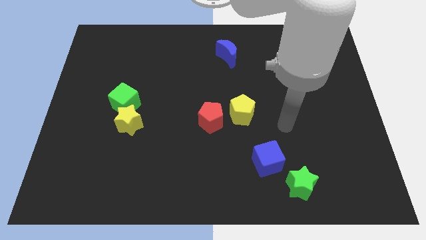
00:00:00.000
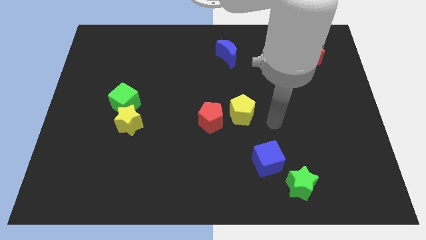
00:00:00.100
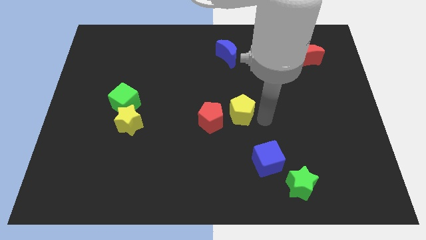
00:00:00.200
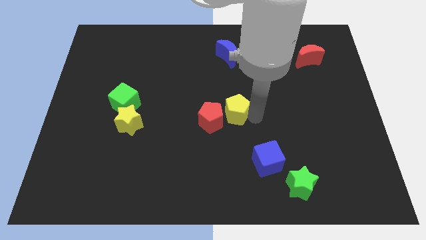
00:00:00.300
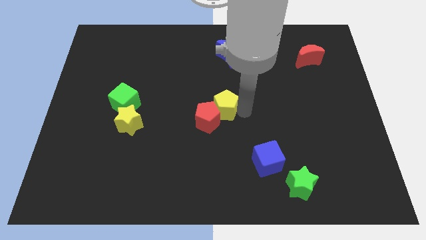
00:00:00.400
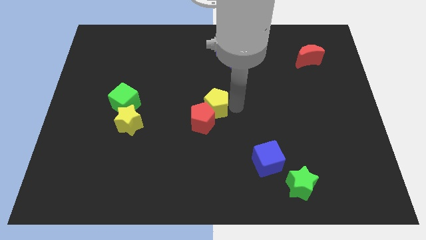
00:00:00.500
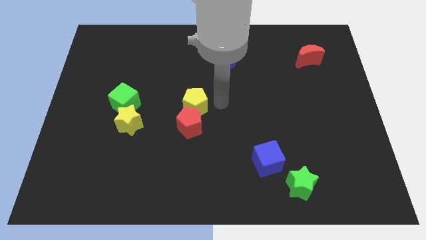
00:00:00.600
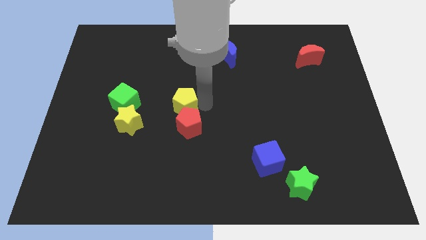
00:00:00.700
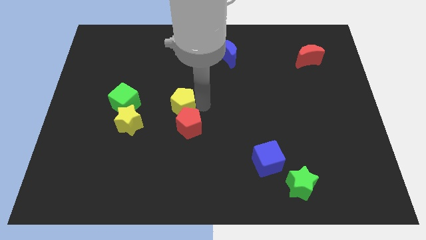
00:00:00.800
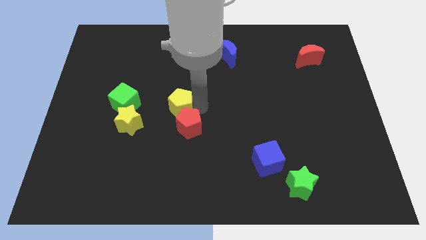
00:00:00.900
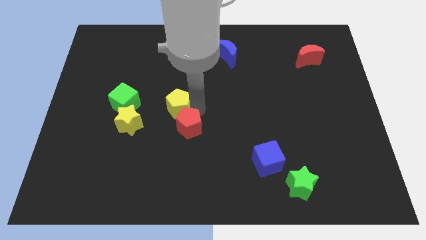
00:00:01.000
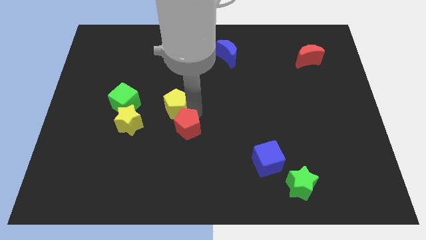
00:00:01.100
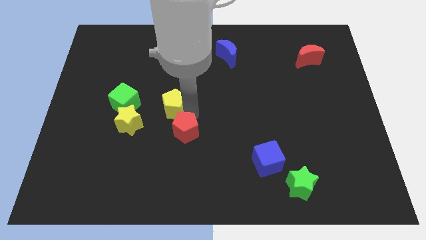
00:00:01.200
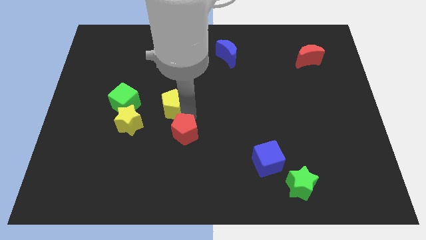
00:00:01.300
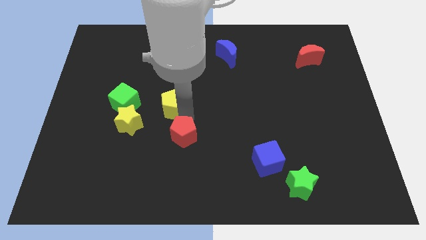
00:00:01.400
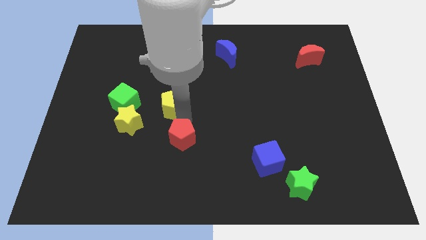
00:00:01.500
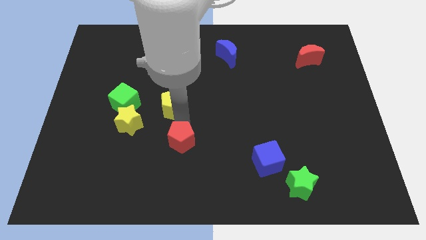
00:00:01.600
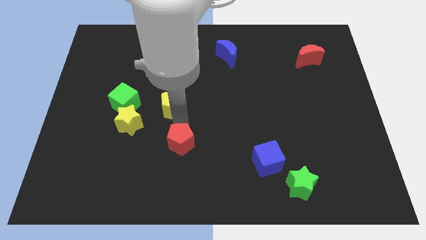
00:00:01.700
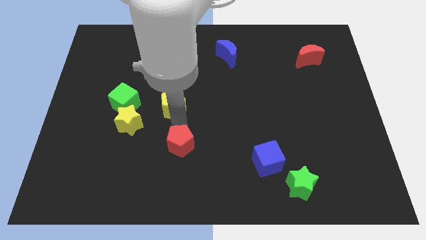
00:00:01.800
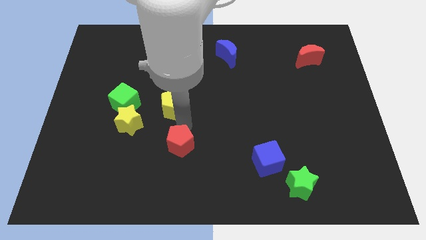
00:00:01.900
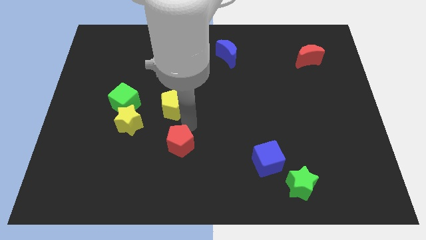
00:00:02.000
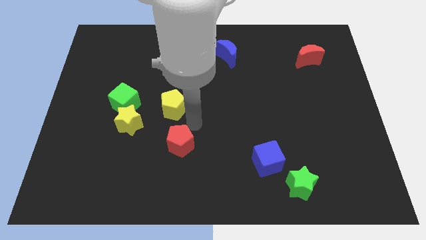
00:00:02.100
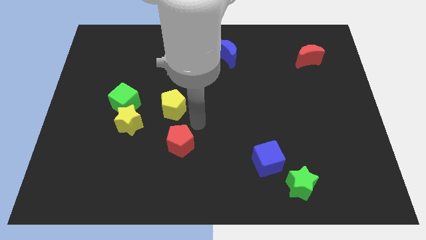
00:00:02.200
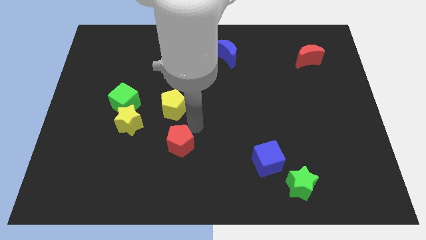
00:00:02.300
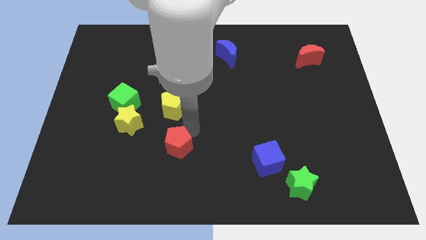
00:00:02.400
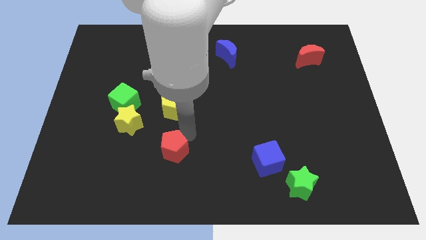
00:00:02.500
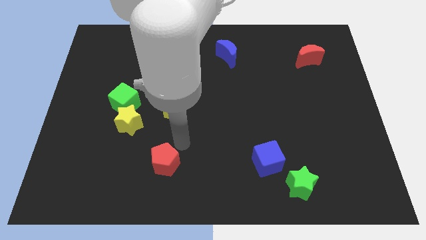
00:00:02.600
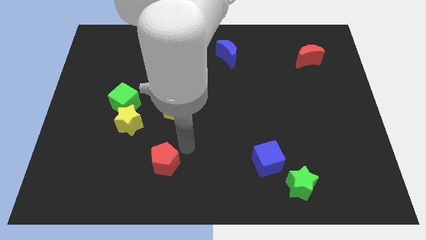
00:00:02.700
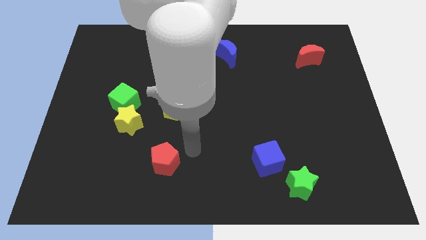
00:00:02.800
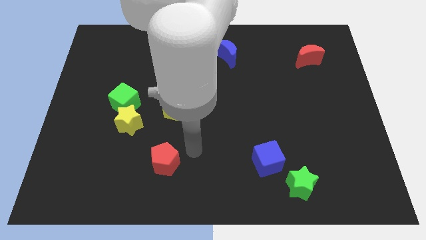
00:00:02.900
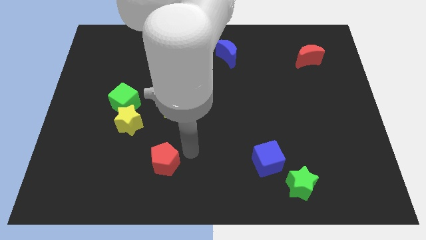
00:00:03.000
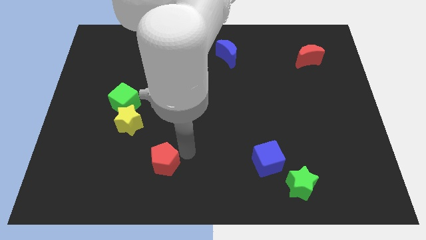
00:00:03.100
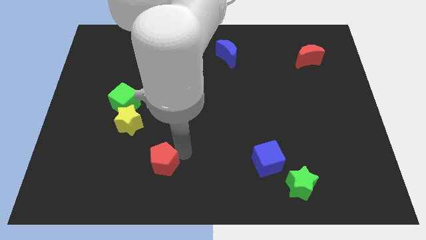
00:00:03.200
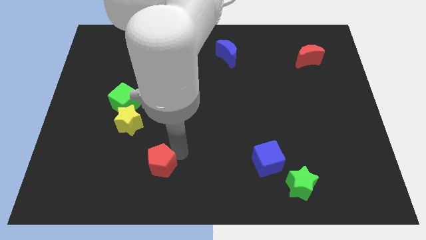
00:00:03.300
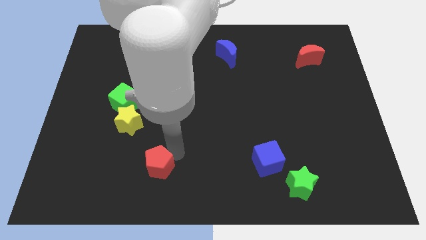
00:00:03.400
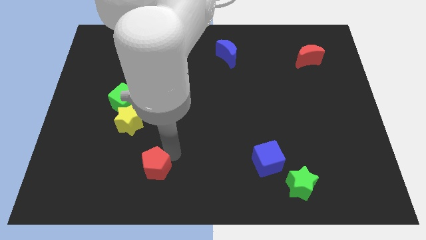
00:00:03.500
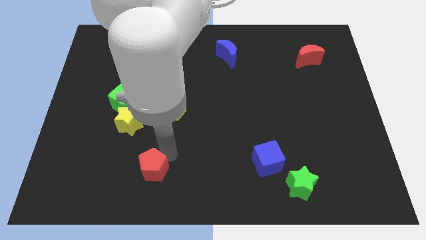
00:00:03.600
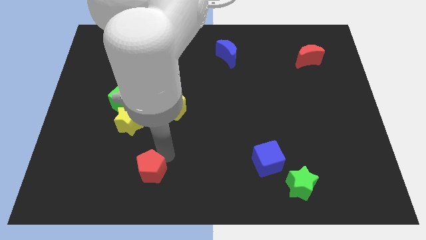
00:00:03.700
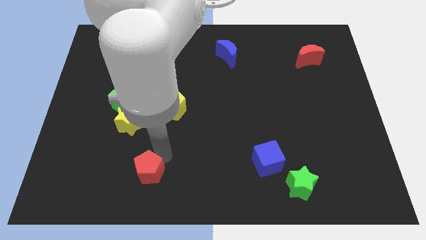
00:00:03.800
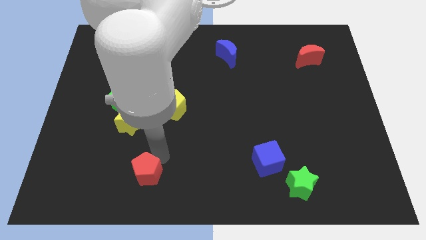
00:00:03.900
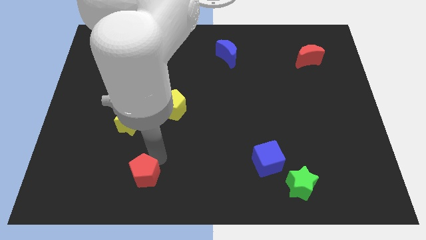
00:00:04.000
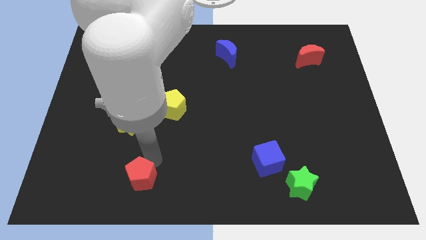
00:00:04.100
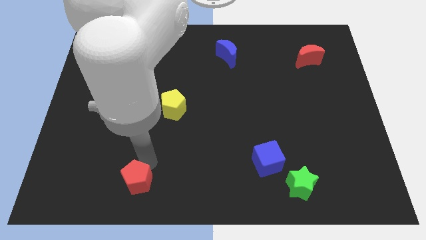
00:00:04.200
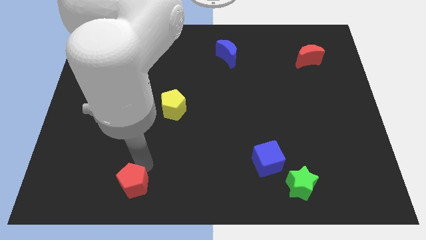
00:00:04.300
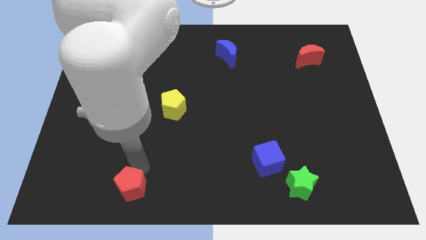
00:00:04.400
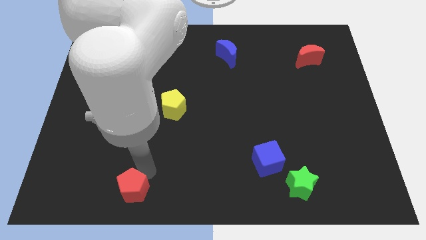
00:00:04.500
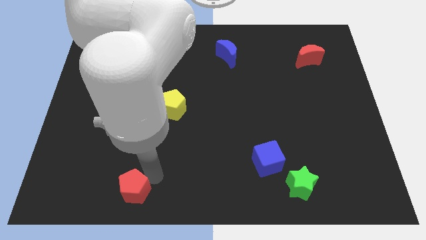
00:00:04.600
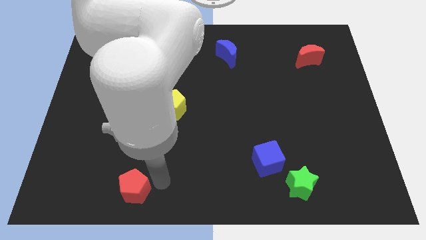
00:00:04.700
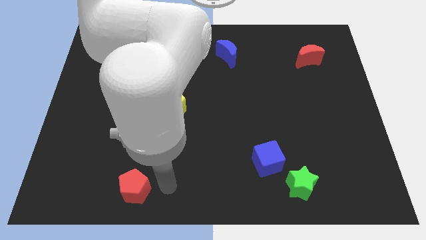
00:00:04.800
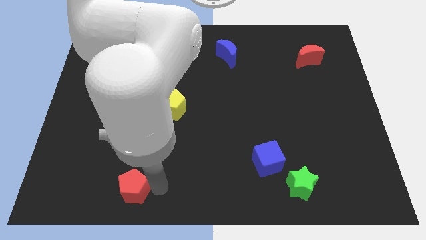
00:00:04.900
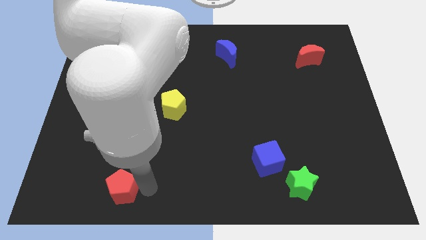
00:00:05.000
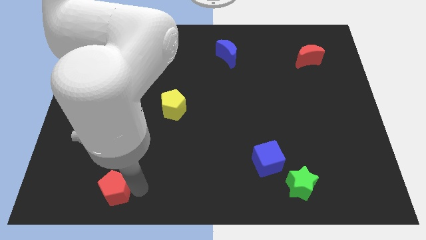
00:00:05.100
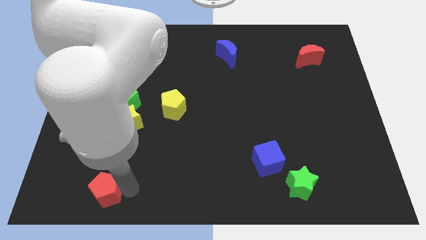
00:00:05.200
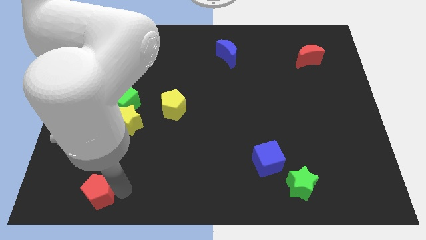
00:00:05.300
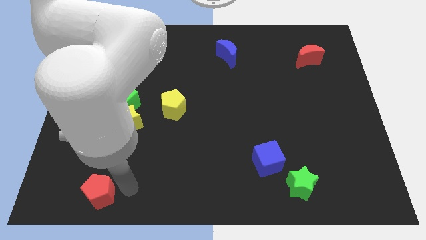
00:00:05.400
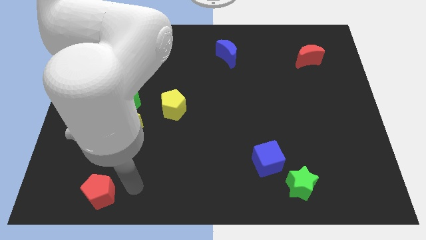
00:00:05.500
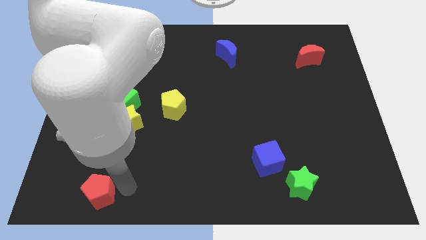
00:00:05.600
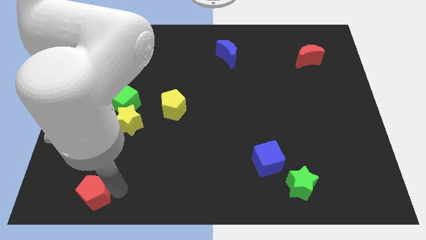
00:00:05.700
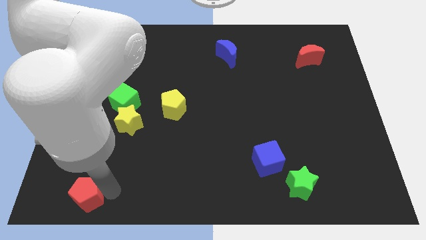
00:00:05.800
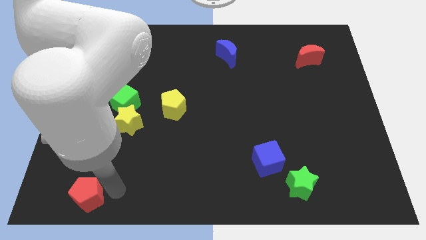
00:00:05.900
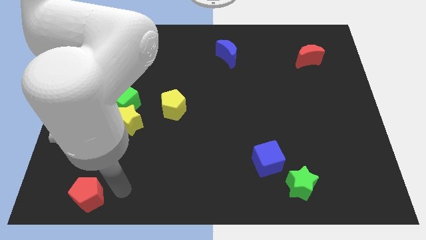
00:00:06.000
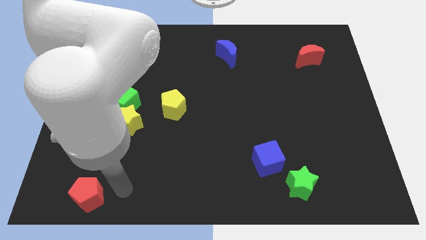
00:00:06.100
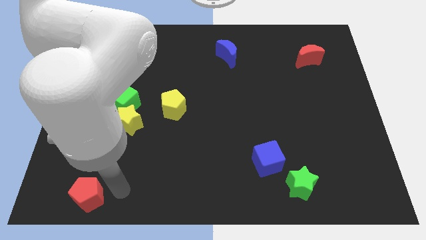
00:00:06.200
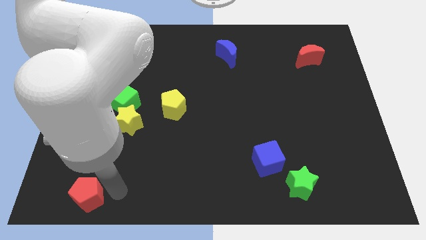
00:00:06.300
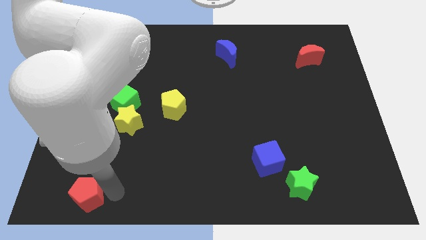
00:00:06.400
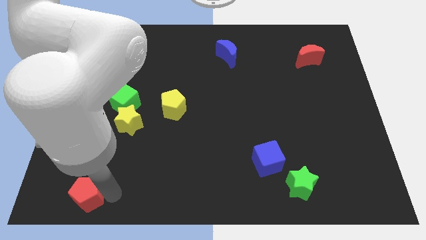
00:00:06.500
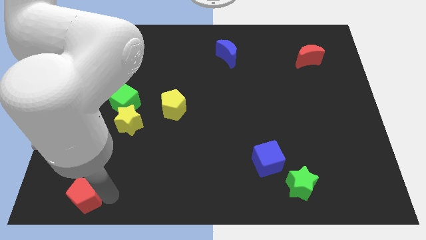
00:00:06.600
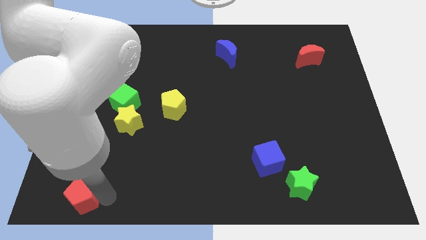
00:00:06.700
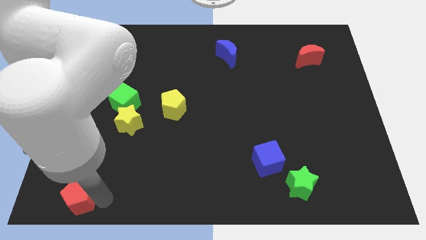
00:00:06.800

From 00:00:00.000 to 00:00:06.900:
slide the red pentagon to the bottom left of the board
